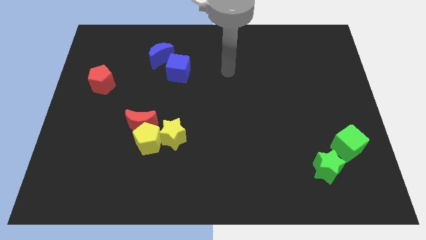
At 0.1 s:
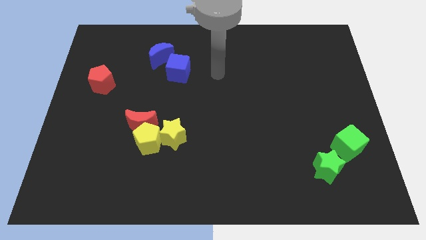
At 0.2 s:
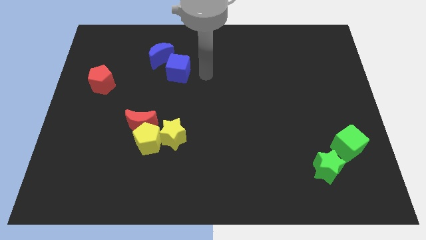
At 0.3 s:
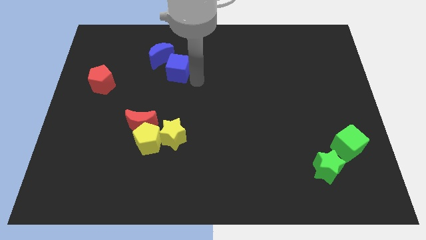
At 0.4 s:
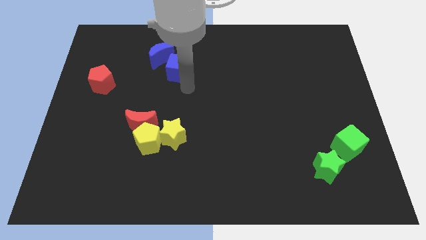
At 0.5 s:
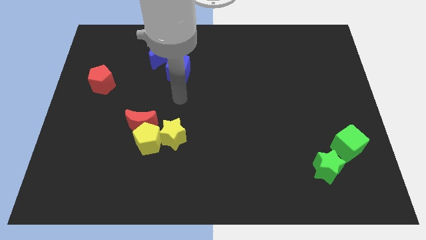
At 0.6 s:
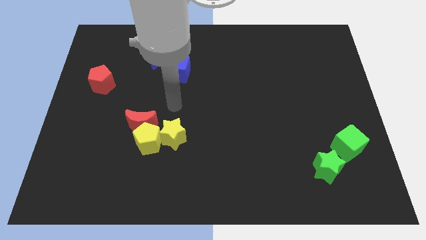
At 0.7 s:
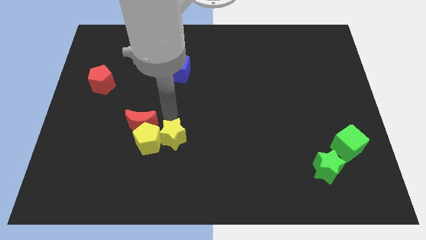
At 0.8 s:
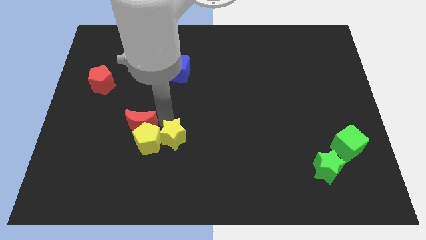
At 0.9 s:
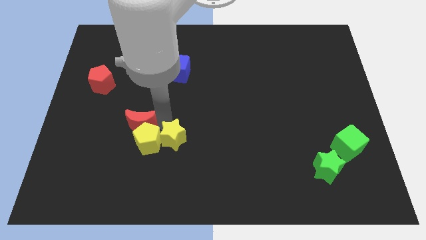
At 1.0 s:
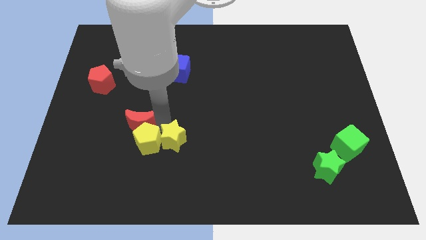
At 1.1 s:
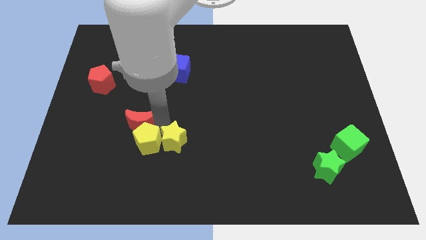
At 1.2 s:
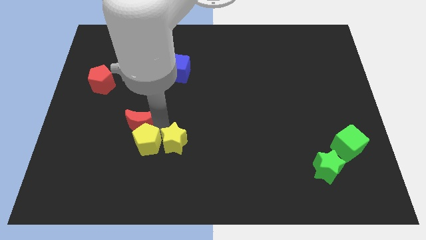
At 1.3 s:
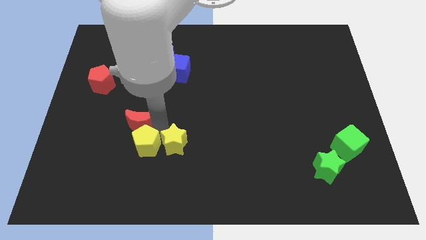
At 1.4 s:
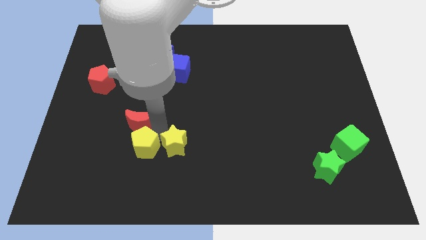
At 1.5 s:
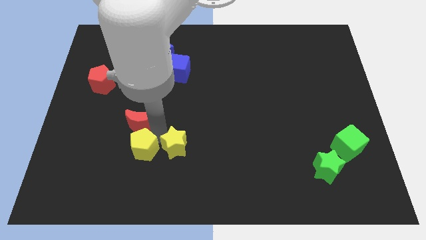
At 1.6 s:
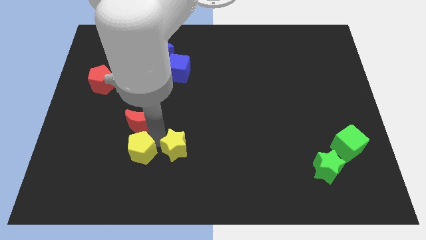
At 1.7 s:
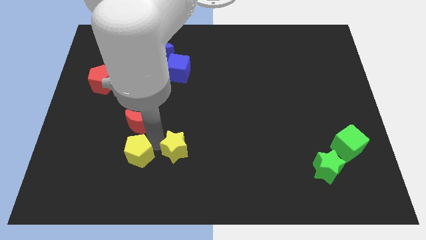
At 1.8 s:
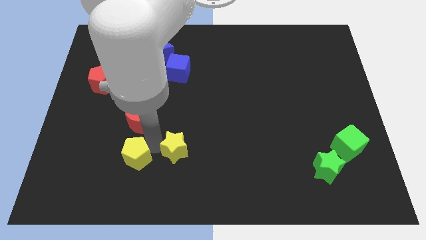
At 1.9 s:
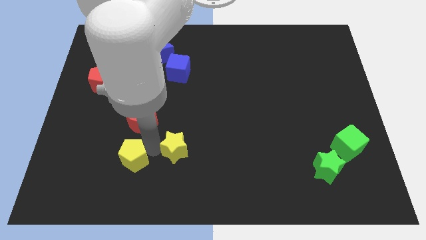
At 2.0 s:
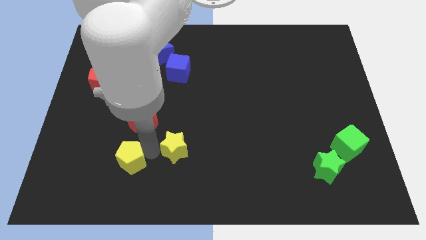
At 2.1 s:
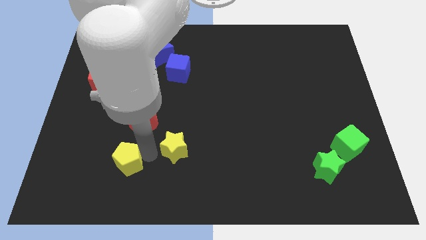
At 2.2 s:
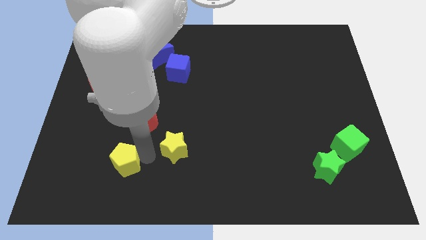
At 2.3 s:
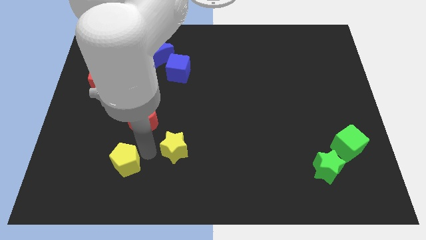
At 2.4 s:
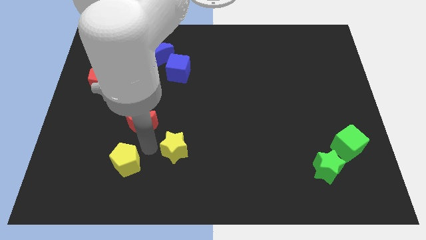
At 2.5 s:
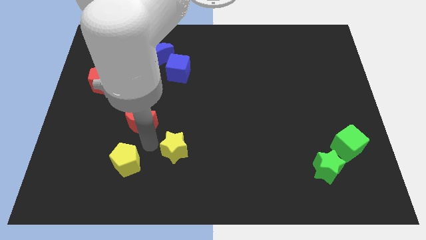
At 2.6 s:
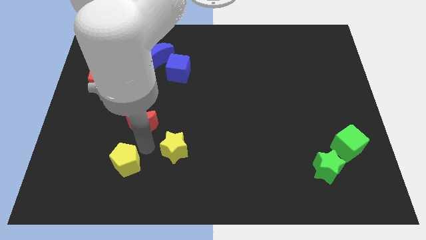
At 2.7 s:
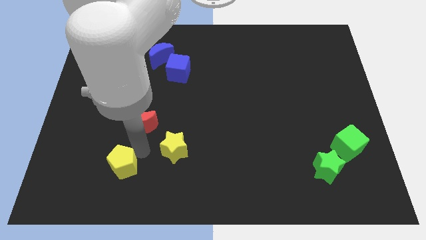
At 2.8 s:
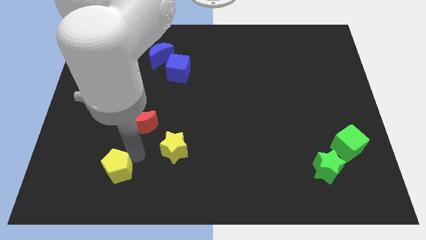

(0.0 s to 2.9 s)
separate the yellow pentagon from the red moon and yellow star

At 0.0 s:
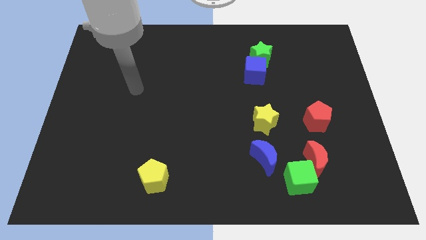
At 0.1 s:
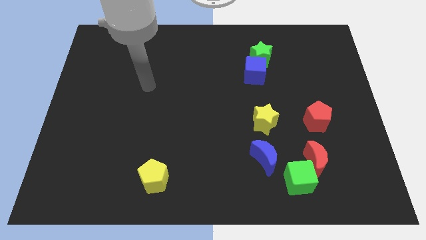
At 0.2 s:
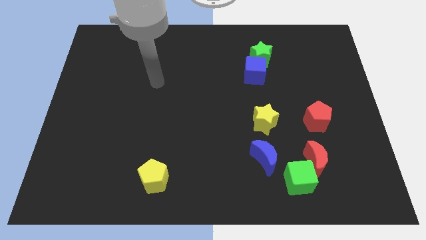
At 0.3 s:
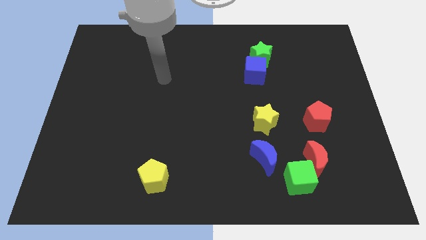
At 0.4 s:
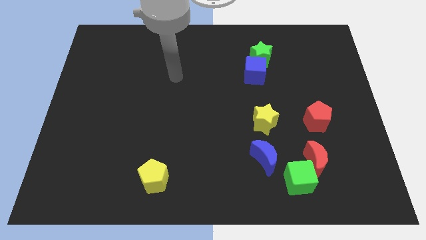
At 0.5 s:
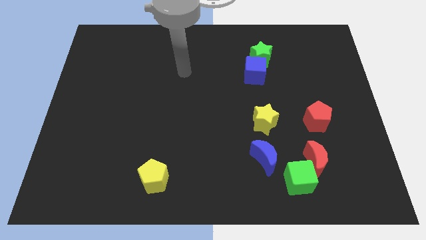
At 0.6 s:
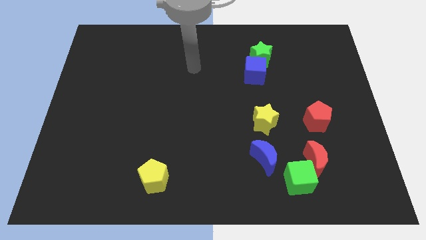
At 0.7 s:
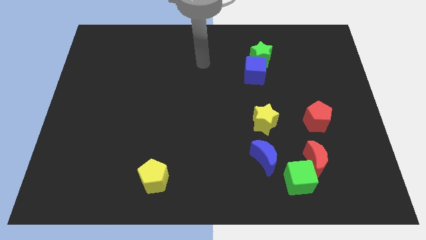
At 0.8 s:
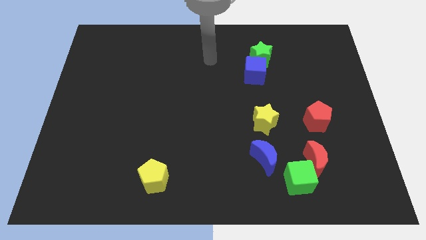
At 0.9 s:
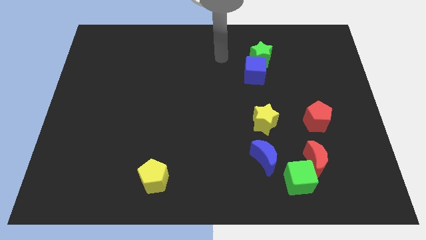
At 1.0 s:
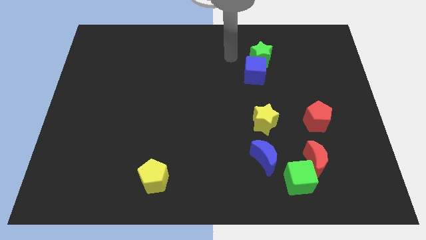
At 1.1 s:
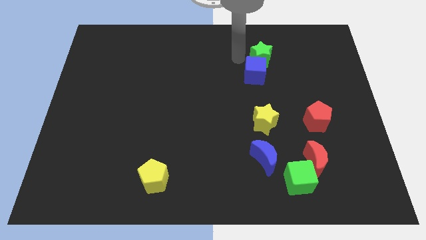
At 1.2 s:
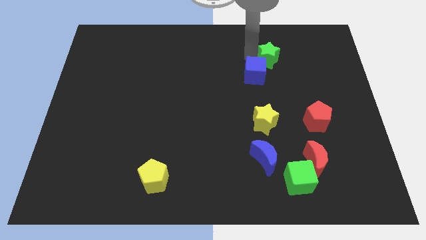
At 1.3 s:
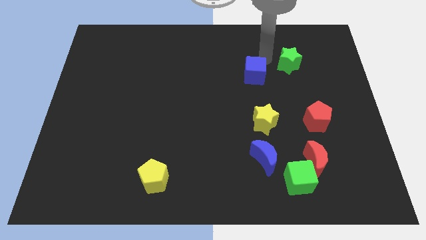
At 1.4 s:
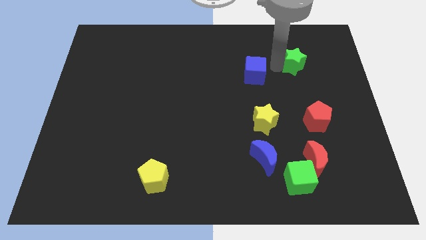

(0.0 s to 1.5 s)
move the blue cube away from the green star

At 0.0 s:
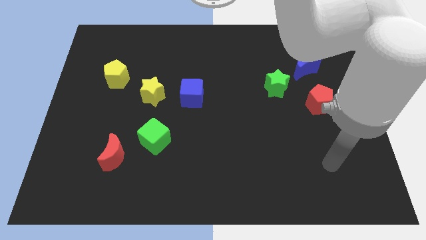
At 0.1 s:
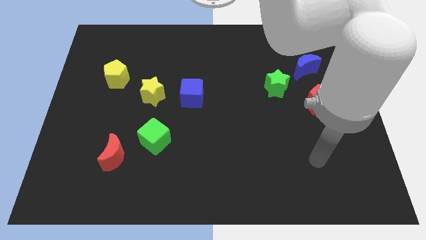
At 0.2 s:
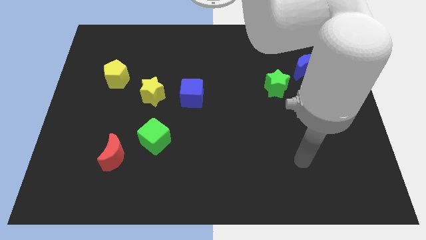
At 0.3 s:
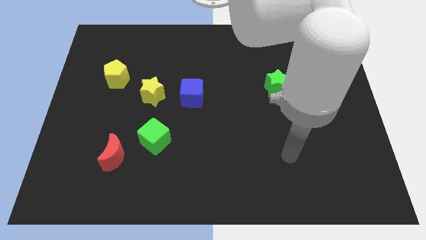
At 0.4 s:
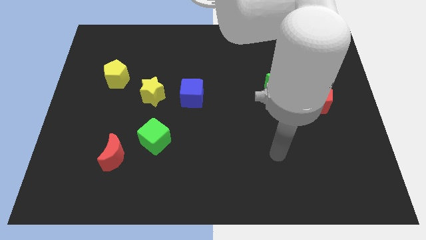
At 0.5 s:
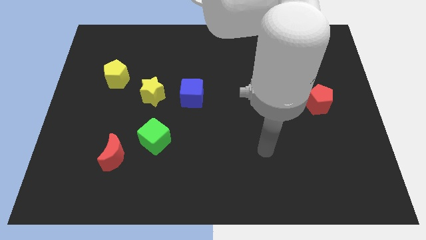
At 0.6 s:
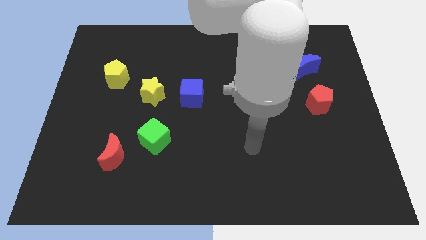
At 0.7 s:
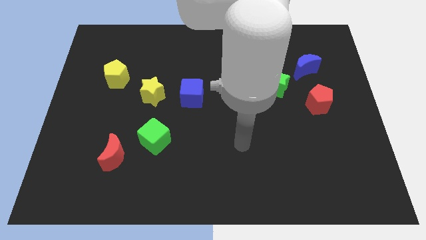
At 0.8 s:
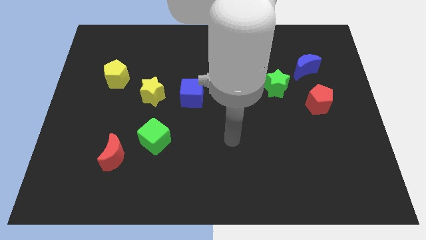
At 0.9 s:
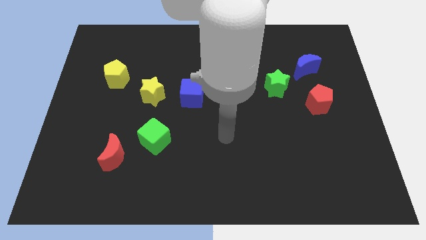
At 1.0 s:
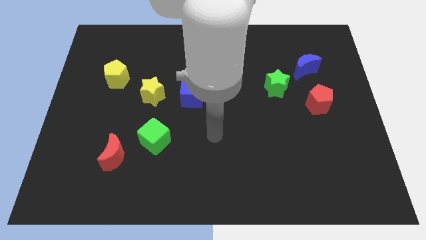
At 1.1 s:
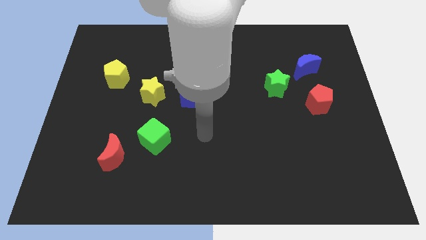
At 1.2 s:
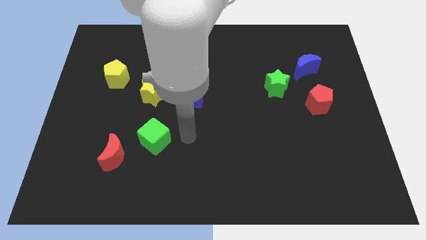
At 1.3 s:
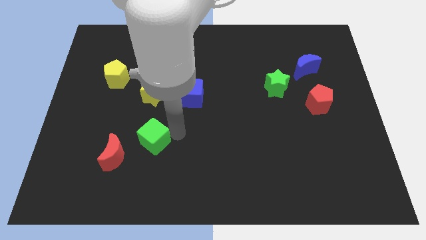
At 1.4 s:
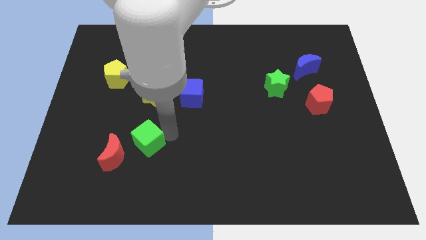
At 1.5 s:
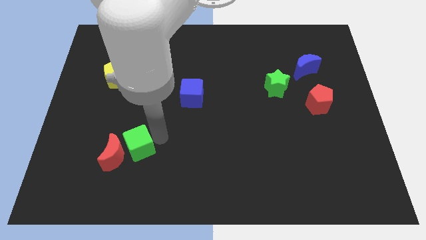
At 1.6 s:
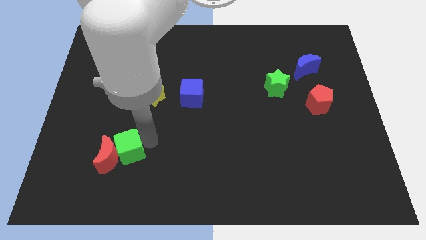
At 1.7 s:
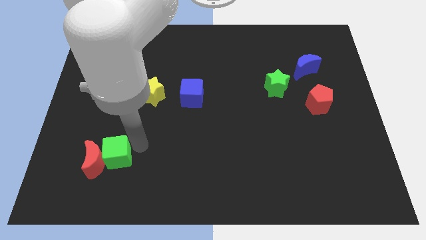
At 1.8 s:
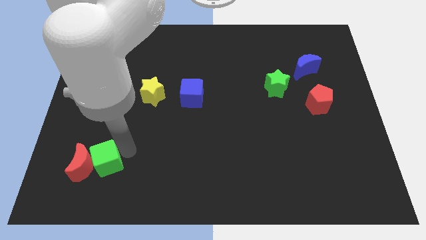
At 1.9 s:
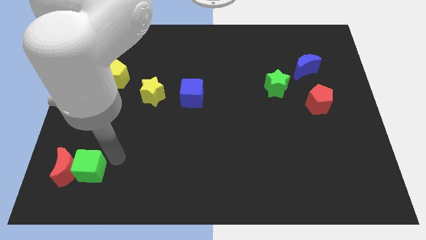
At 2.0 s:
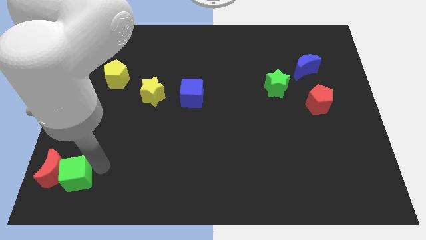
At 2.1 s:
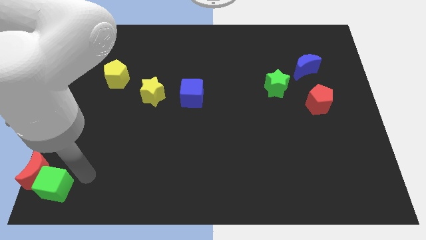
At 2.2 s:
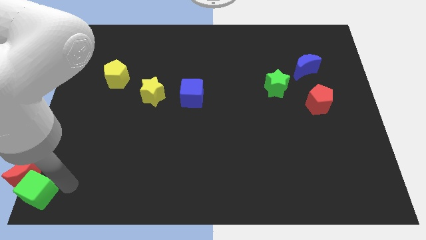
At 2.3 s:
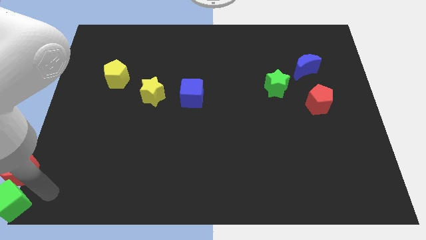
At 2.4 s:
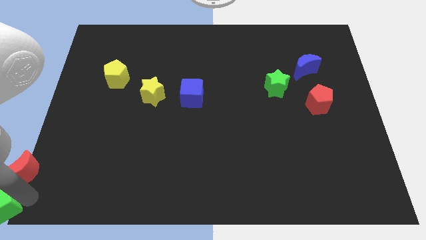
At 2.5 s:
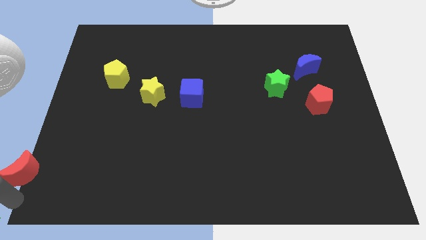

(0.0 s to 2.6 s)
move the red moon away from the green cube

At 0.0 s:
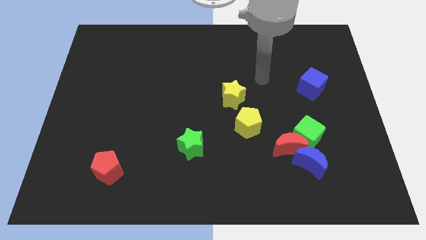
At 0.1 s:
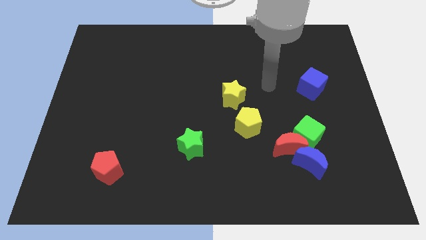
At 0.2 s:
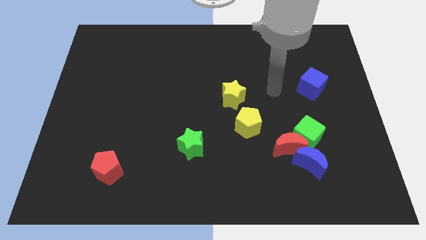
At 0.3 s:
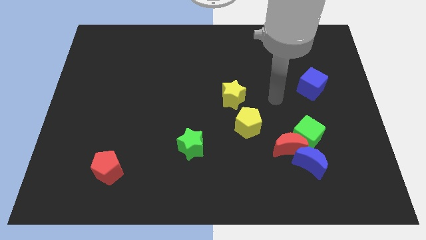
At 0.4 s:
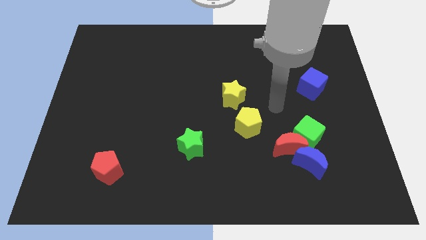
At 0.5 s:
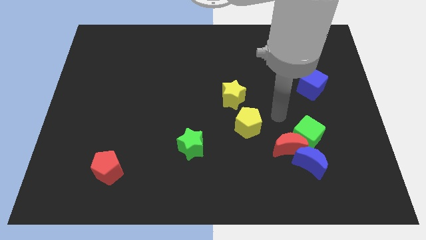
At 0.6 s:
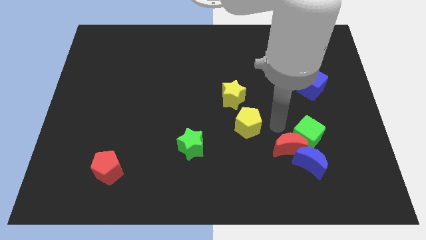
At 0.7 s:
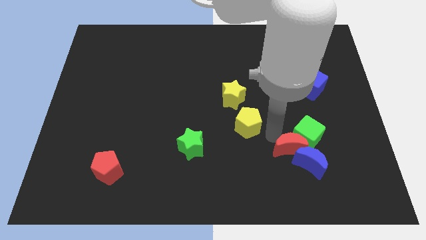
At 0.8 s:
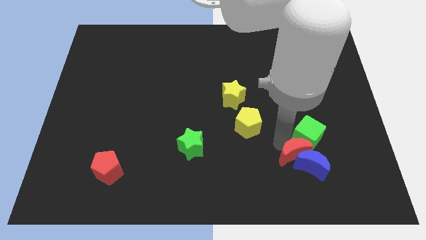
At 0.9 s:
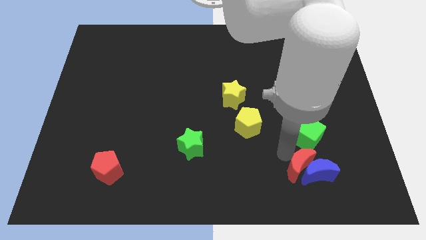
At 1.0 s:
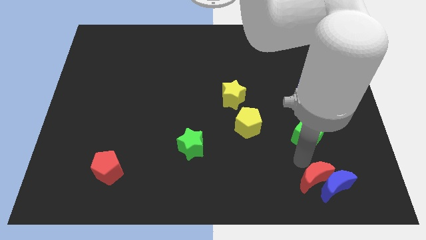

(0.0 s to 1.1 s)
move the green cube away from the red moon and blue moon

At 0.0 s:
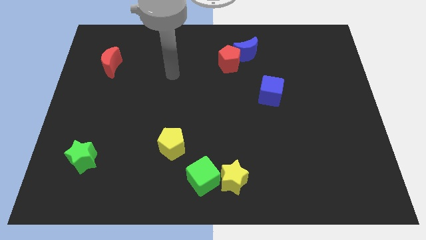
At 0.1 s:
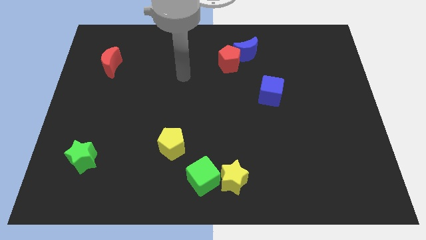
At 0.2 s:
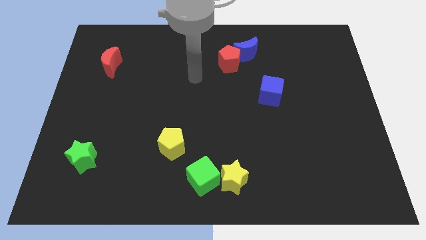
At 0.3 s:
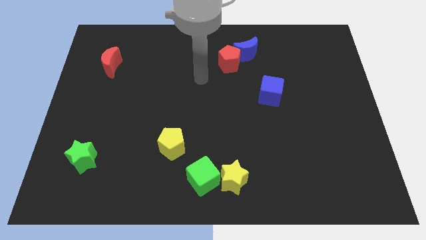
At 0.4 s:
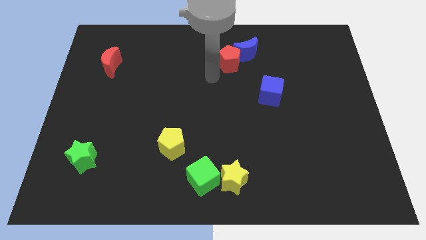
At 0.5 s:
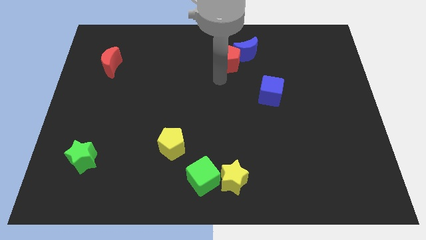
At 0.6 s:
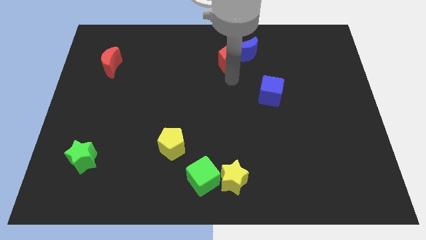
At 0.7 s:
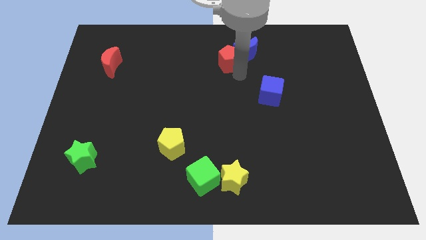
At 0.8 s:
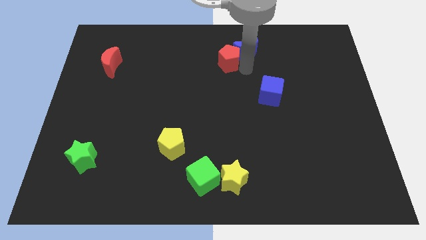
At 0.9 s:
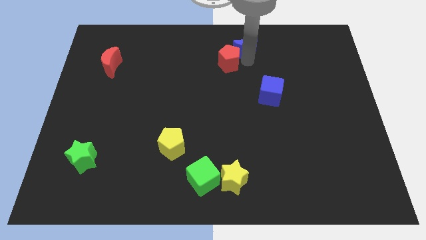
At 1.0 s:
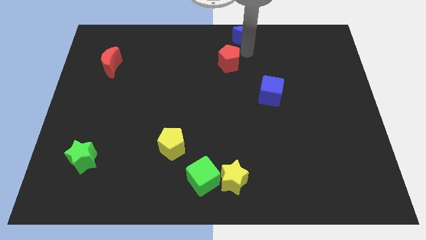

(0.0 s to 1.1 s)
separate the red pentagon from the blue moon
